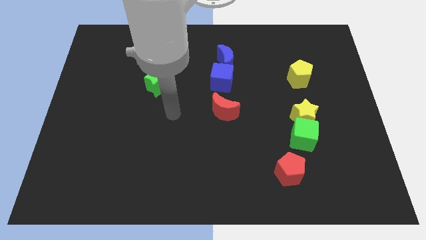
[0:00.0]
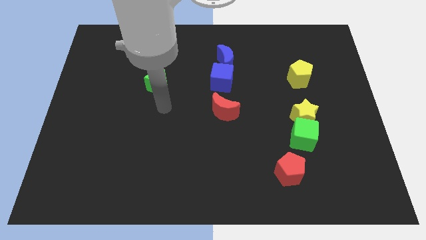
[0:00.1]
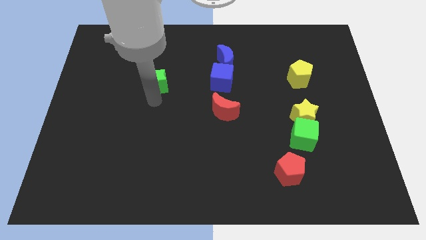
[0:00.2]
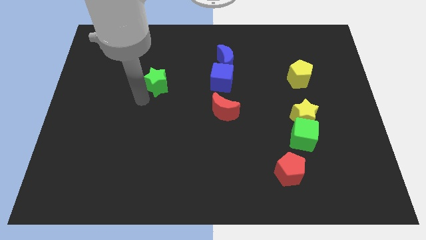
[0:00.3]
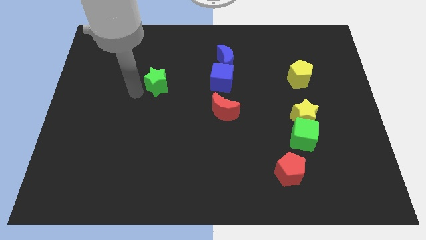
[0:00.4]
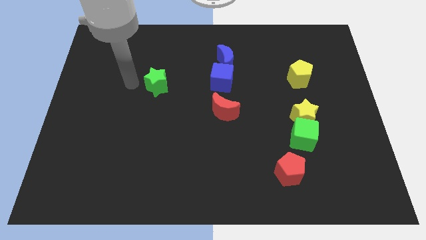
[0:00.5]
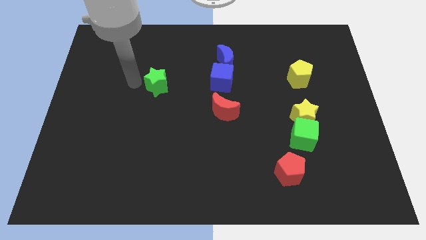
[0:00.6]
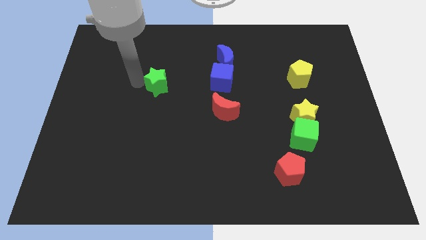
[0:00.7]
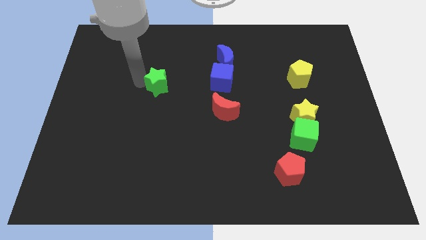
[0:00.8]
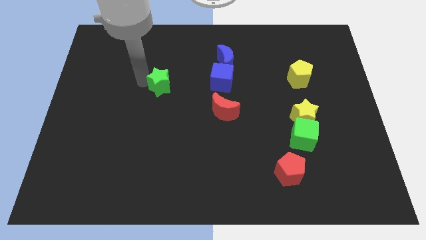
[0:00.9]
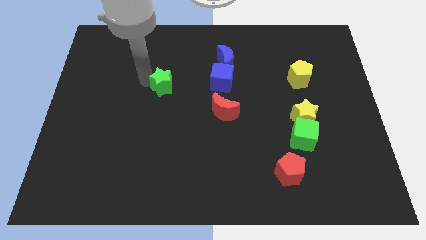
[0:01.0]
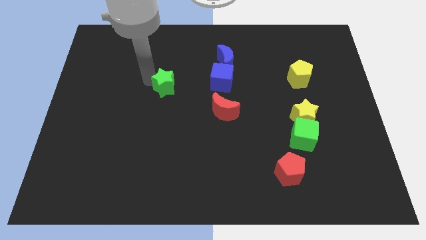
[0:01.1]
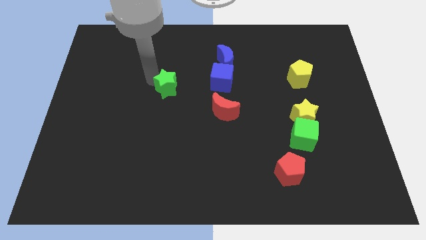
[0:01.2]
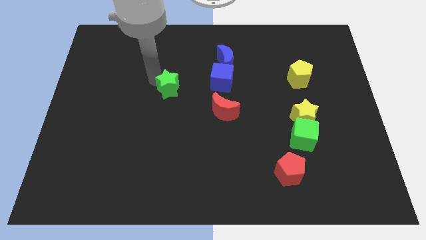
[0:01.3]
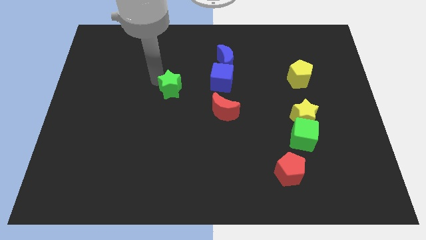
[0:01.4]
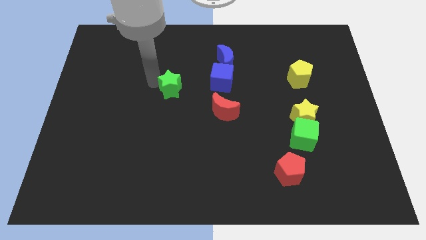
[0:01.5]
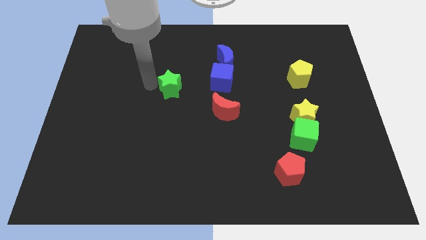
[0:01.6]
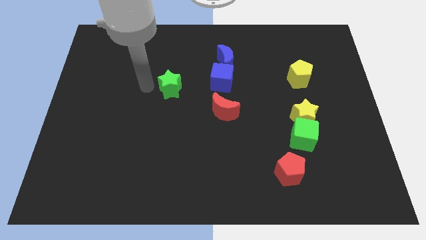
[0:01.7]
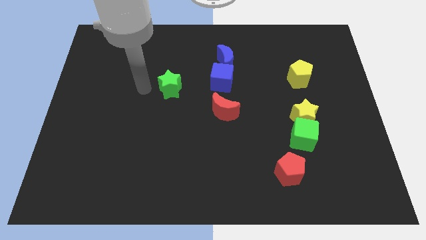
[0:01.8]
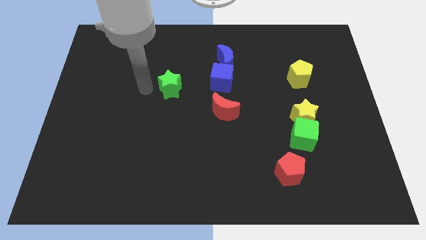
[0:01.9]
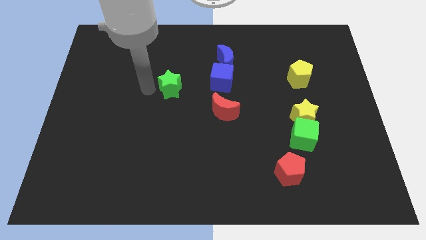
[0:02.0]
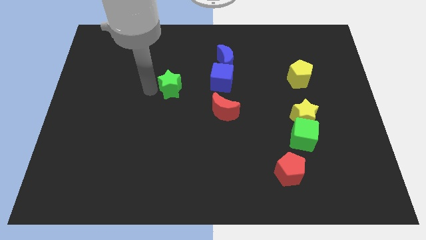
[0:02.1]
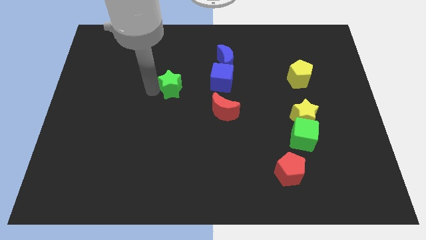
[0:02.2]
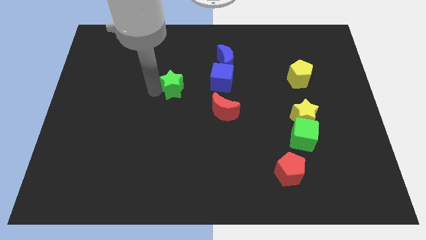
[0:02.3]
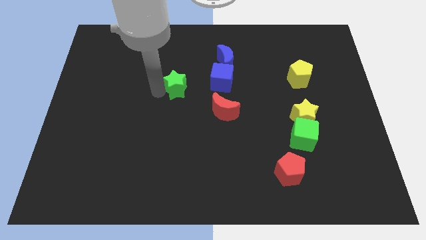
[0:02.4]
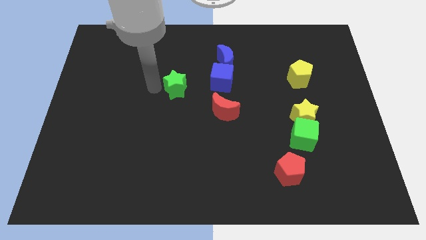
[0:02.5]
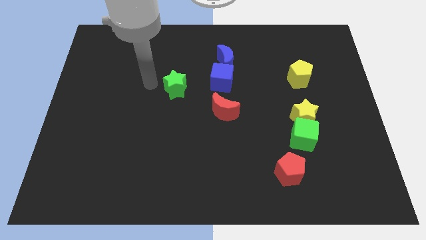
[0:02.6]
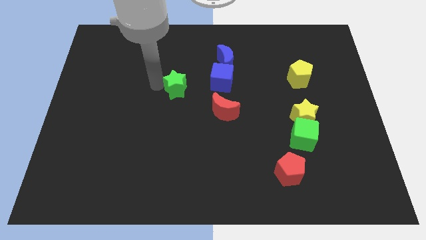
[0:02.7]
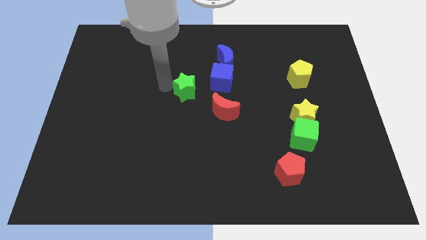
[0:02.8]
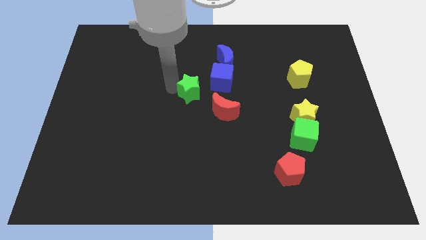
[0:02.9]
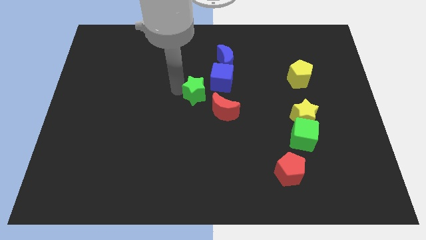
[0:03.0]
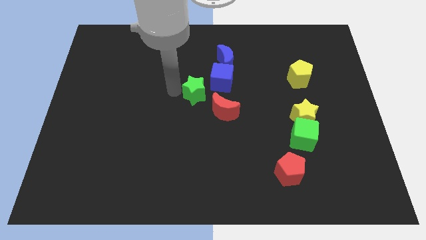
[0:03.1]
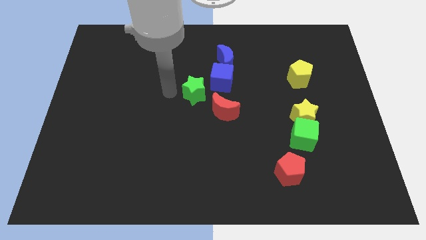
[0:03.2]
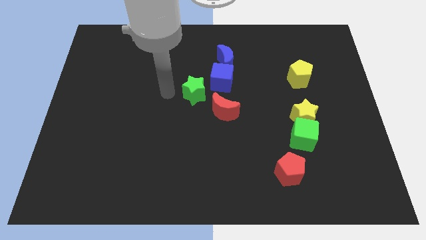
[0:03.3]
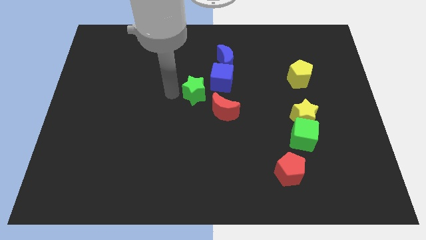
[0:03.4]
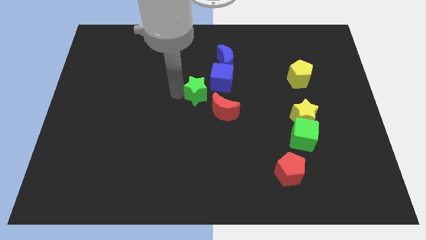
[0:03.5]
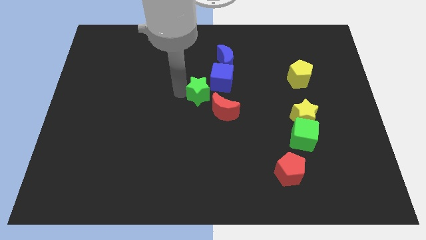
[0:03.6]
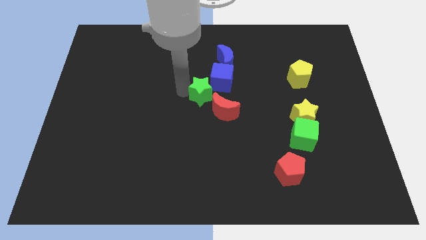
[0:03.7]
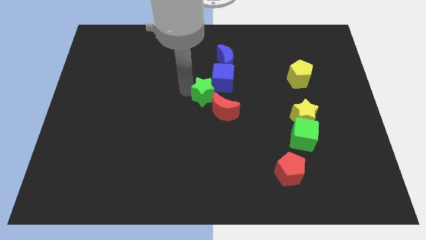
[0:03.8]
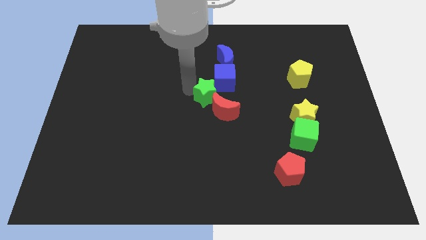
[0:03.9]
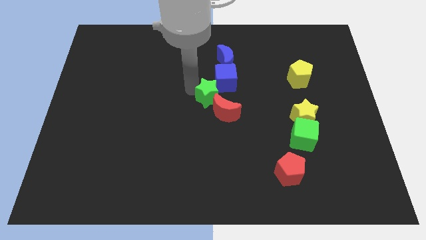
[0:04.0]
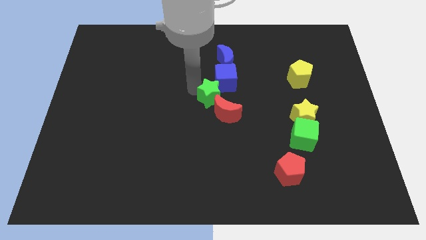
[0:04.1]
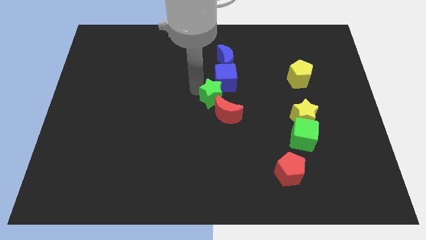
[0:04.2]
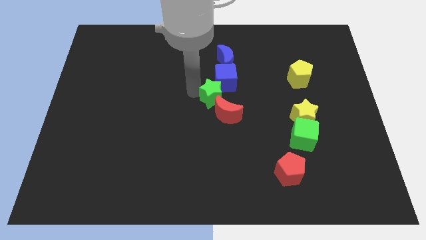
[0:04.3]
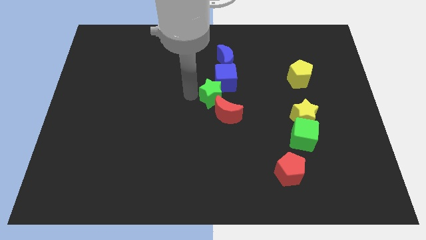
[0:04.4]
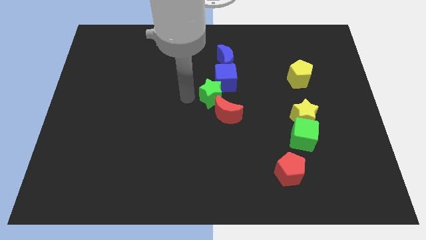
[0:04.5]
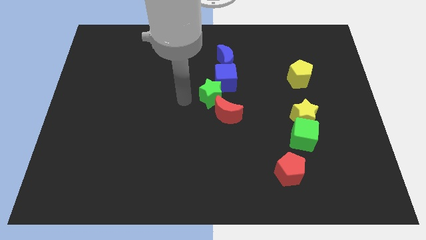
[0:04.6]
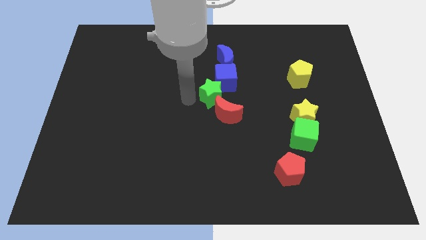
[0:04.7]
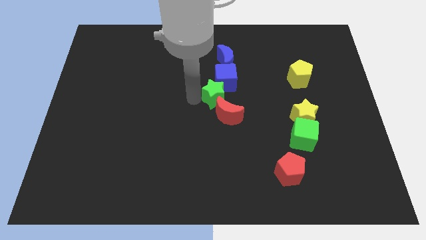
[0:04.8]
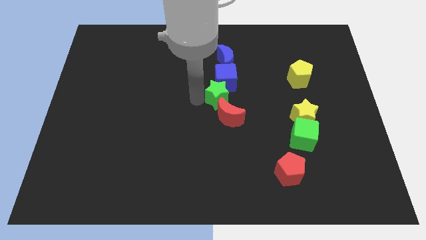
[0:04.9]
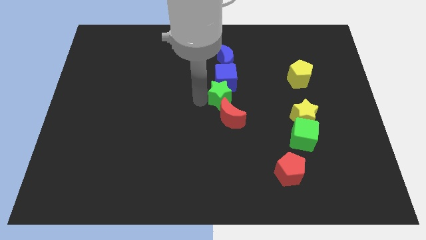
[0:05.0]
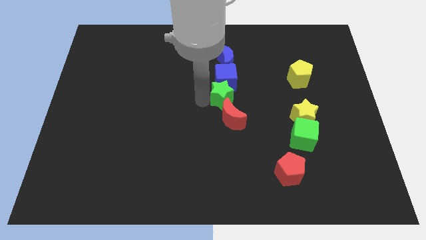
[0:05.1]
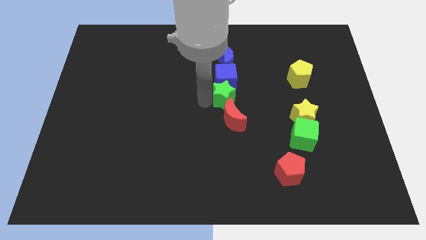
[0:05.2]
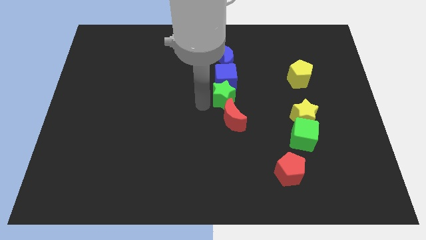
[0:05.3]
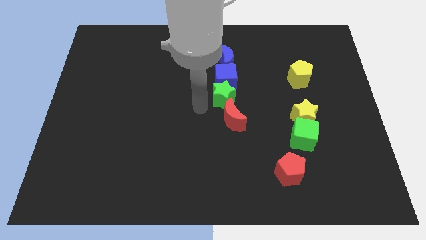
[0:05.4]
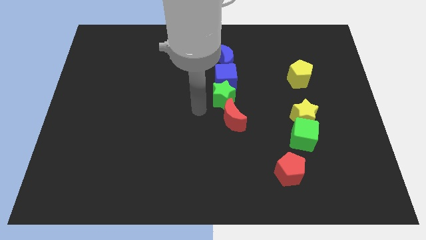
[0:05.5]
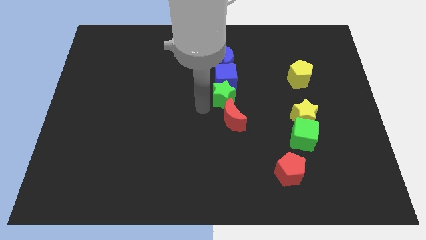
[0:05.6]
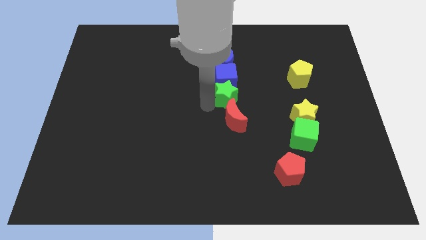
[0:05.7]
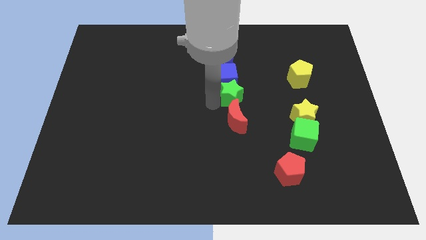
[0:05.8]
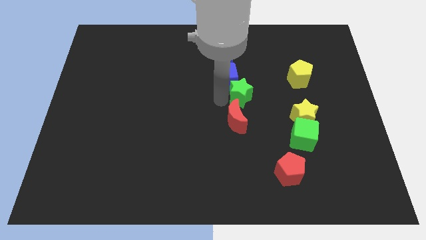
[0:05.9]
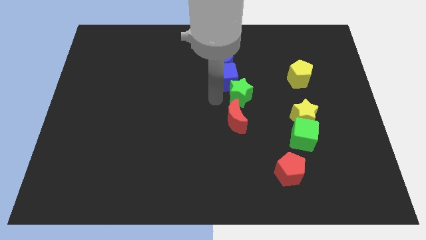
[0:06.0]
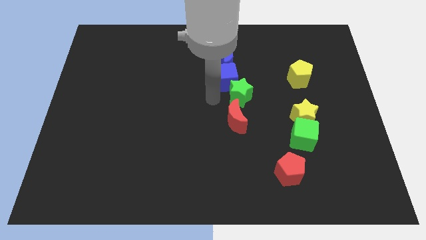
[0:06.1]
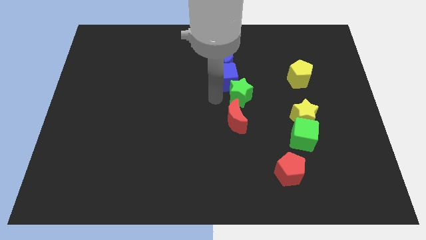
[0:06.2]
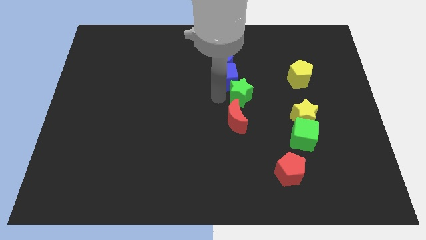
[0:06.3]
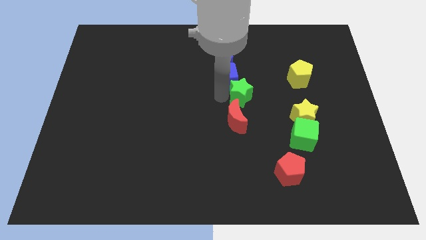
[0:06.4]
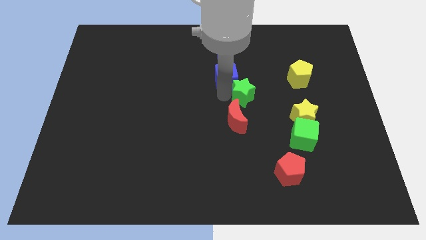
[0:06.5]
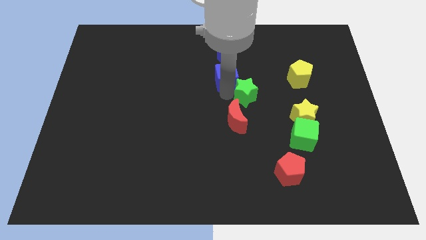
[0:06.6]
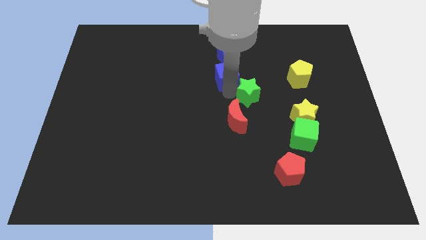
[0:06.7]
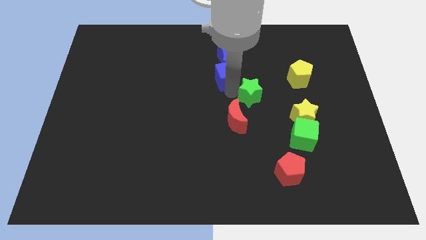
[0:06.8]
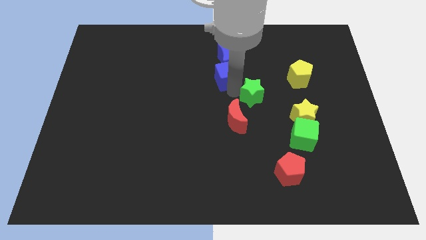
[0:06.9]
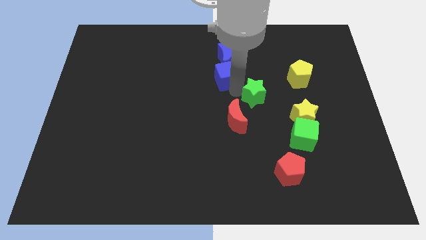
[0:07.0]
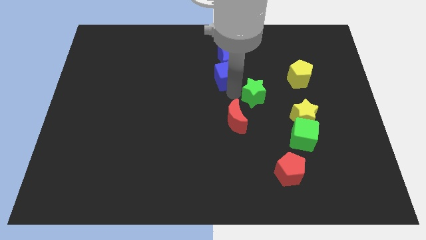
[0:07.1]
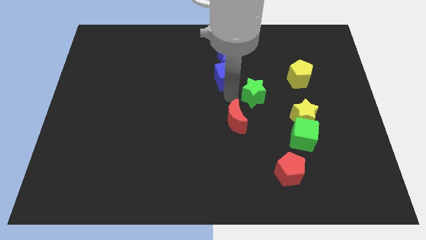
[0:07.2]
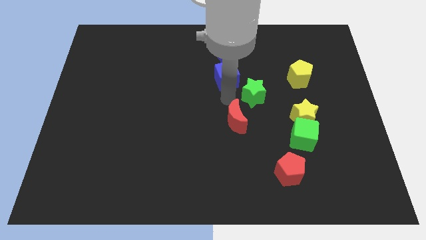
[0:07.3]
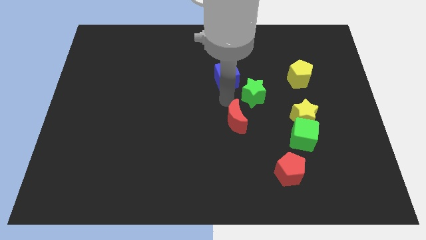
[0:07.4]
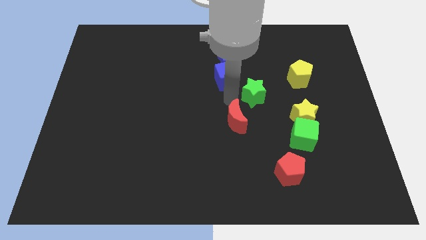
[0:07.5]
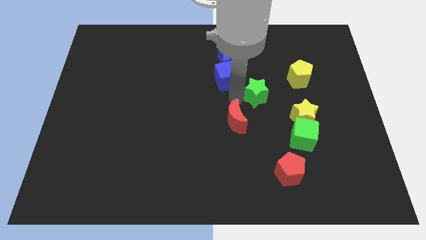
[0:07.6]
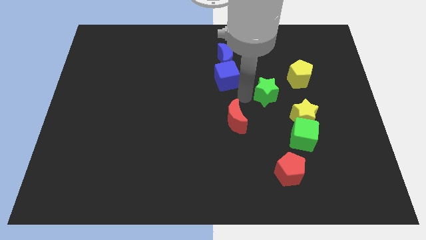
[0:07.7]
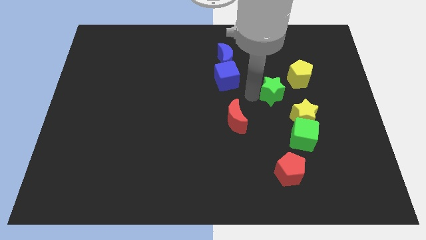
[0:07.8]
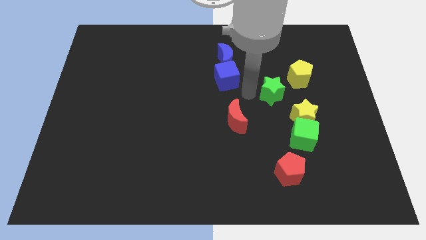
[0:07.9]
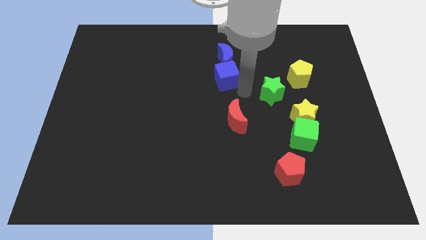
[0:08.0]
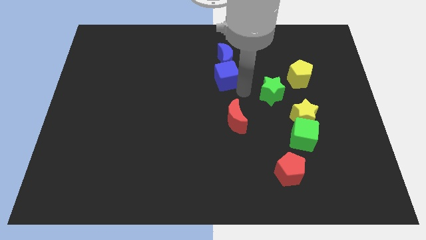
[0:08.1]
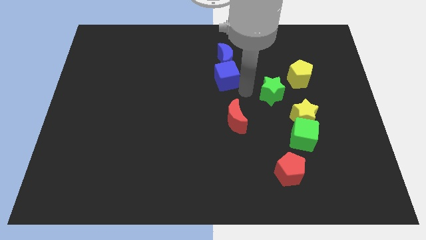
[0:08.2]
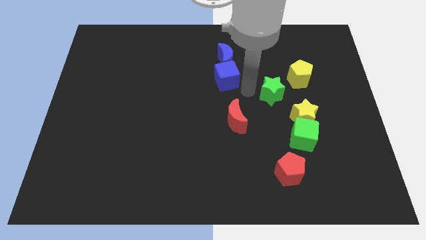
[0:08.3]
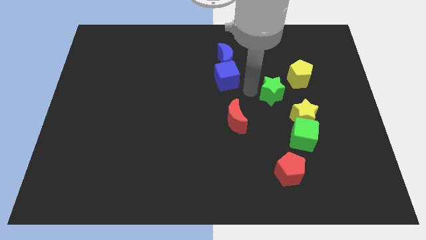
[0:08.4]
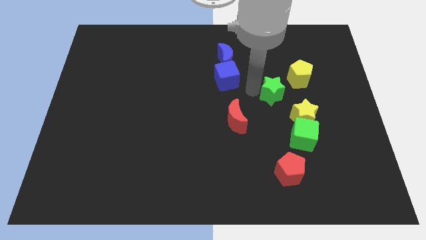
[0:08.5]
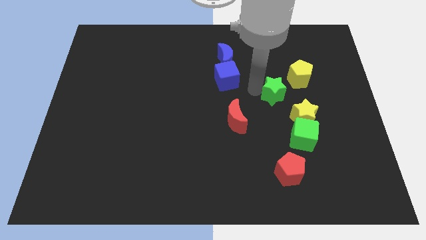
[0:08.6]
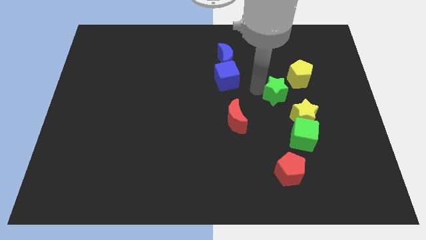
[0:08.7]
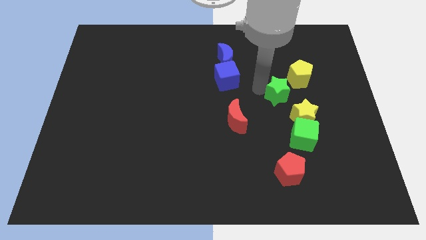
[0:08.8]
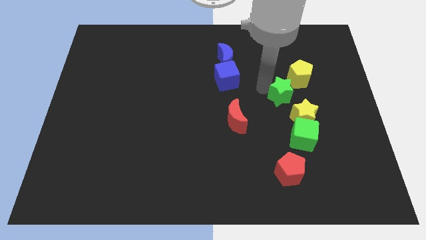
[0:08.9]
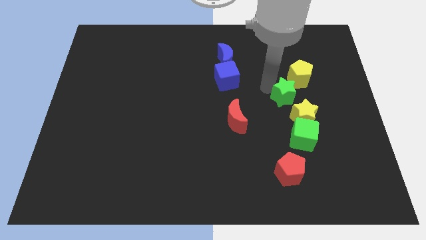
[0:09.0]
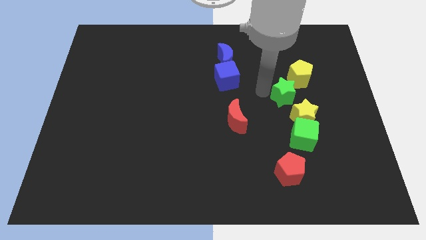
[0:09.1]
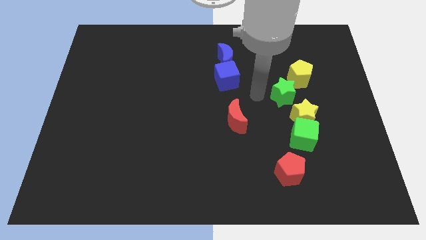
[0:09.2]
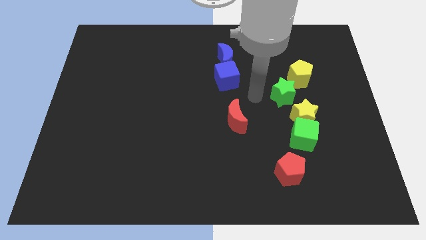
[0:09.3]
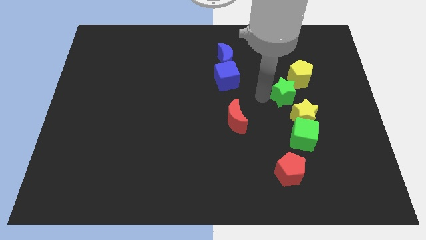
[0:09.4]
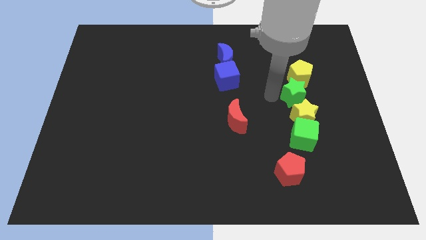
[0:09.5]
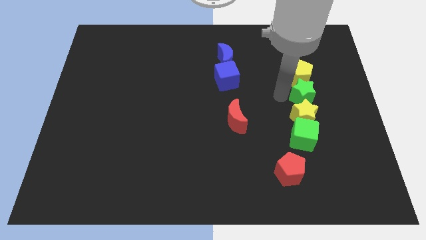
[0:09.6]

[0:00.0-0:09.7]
push the green star diagonally down and to the right of the yellow pentagon
